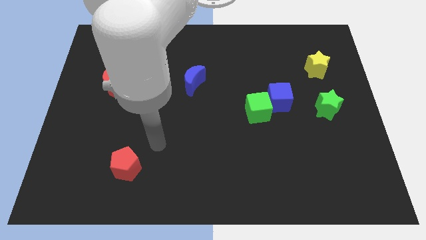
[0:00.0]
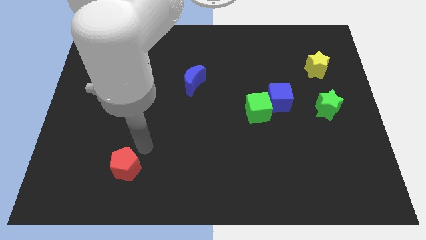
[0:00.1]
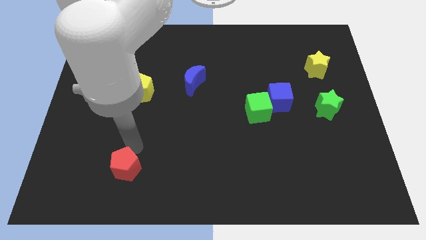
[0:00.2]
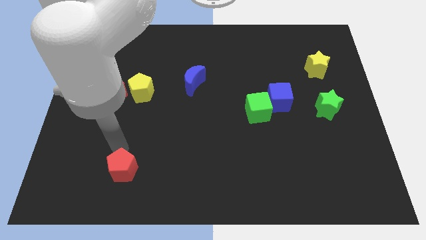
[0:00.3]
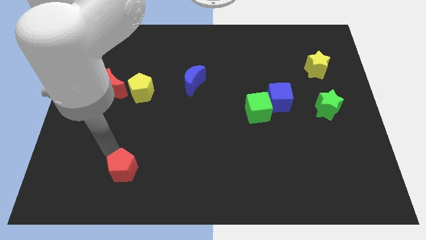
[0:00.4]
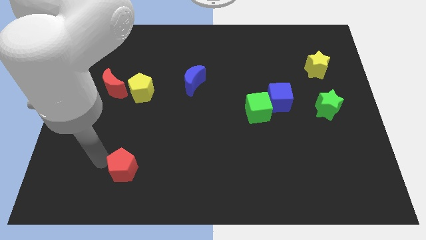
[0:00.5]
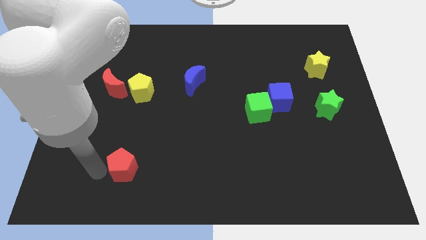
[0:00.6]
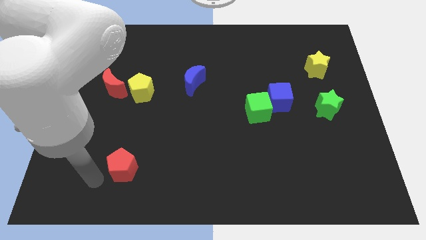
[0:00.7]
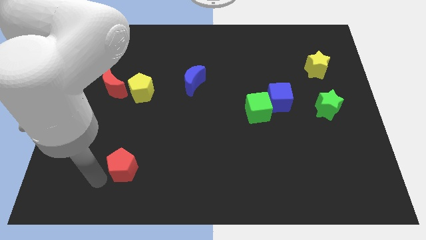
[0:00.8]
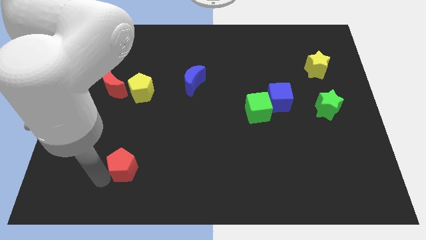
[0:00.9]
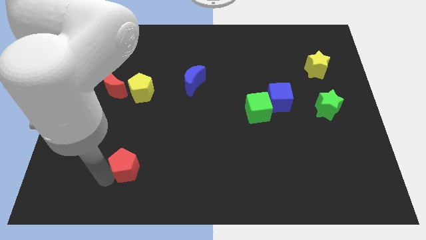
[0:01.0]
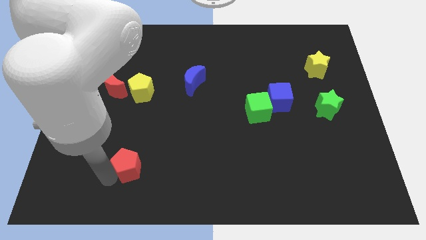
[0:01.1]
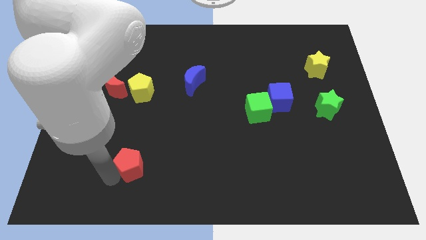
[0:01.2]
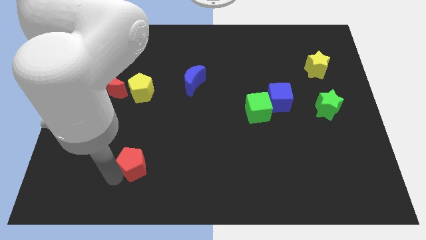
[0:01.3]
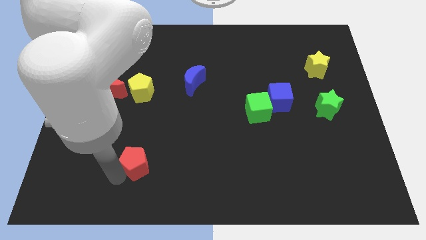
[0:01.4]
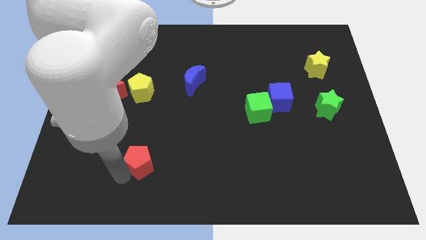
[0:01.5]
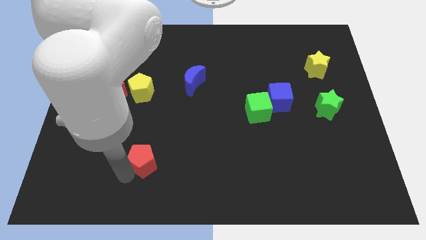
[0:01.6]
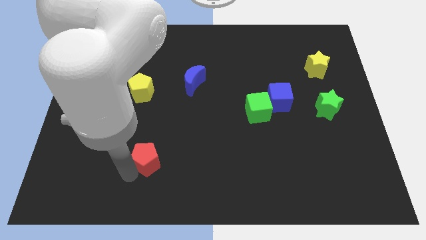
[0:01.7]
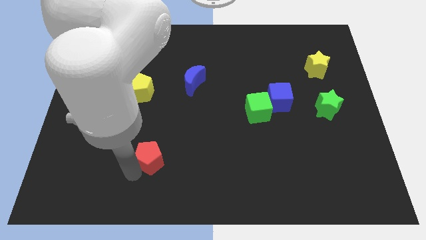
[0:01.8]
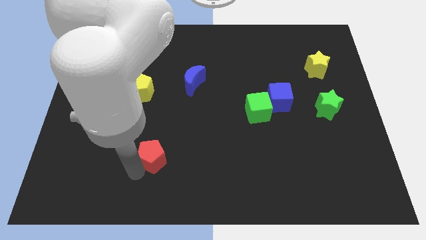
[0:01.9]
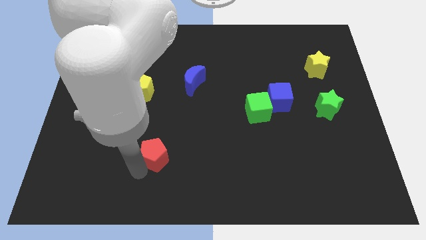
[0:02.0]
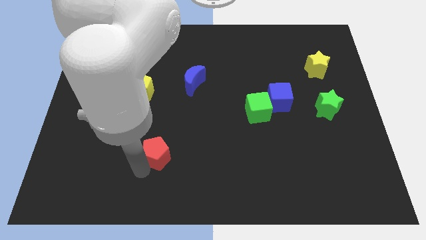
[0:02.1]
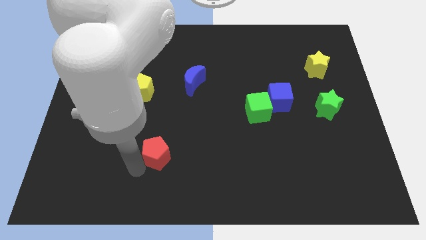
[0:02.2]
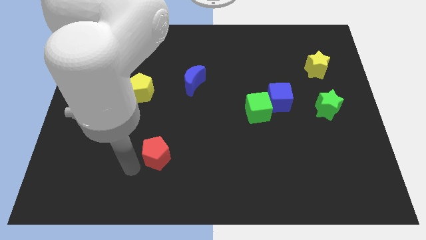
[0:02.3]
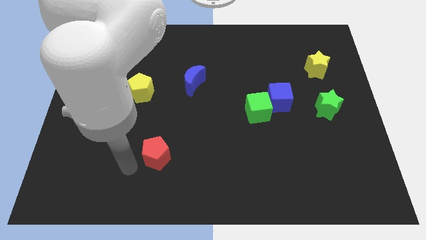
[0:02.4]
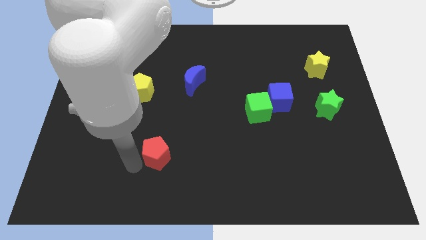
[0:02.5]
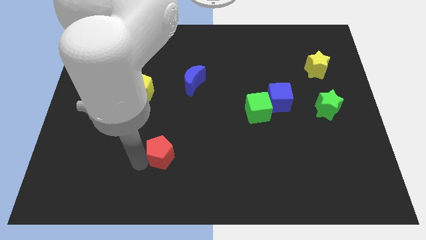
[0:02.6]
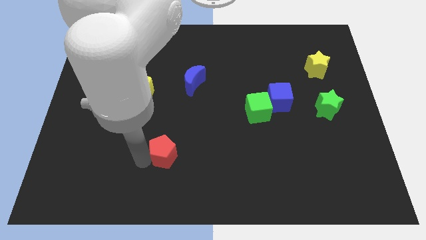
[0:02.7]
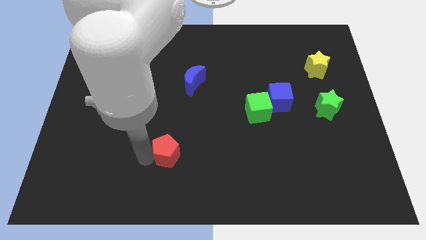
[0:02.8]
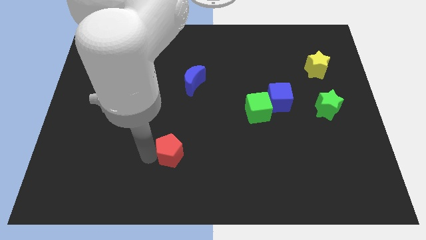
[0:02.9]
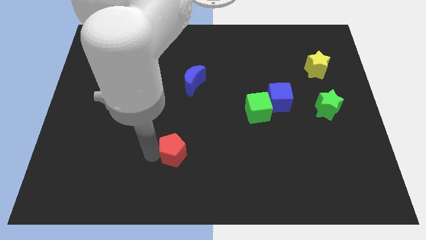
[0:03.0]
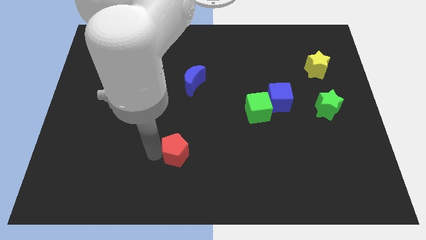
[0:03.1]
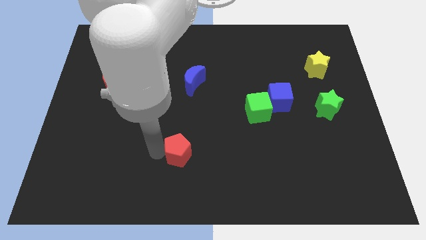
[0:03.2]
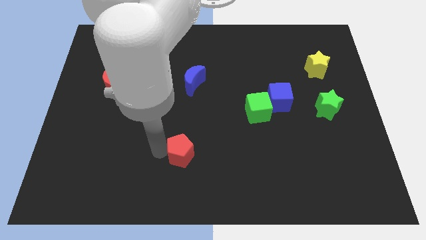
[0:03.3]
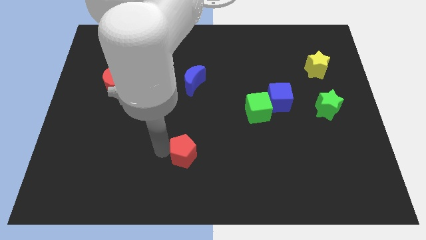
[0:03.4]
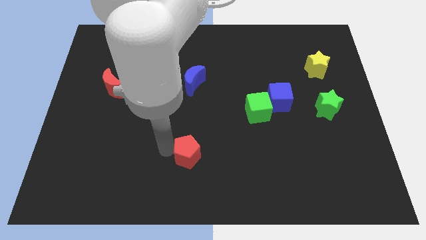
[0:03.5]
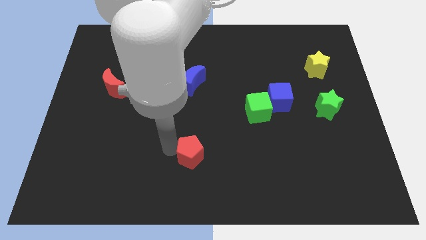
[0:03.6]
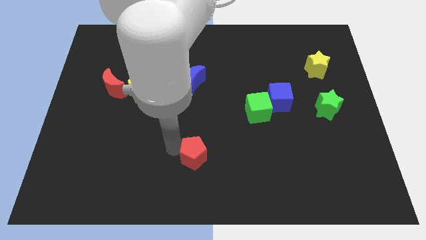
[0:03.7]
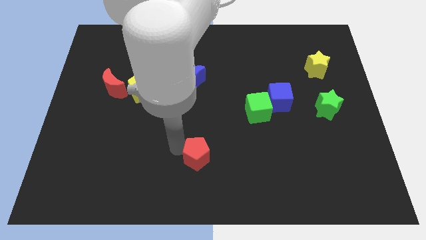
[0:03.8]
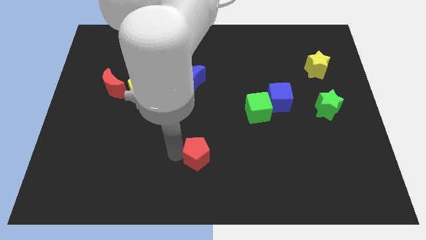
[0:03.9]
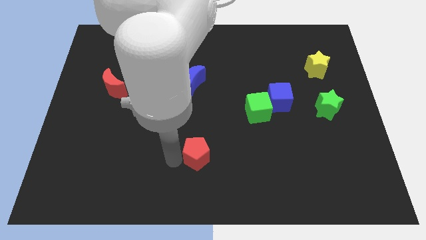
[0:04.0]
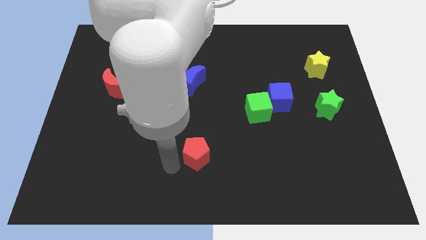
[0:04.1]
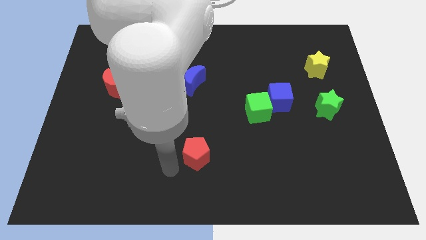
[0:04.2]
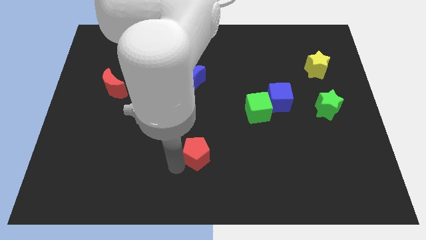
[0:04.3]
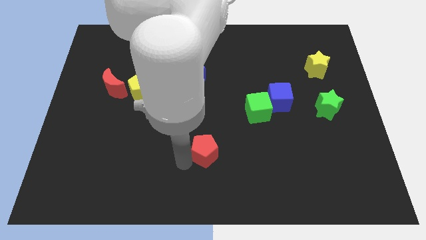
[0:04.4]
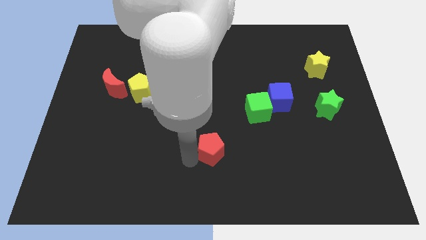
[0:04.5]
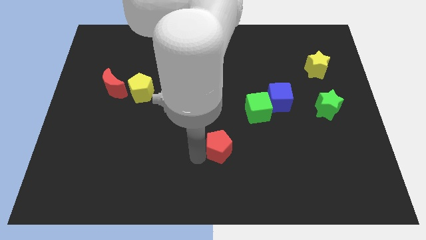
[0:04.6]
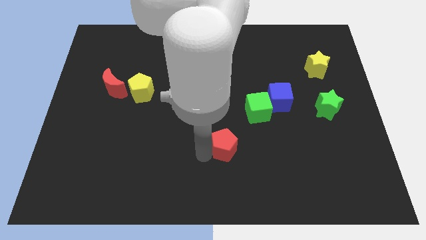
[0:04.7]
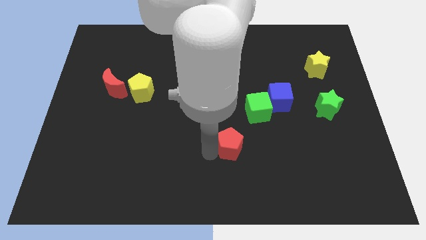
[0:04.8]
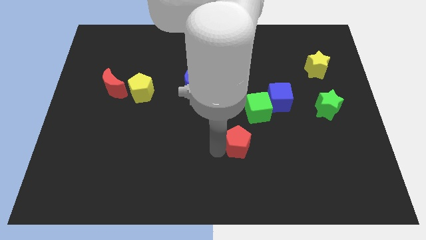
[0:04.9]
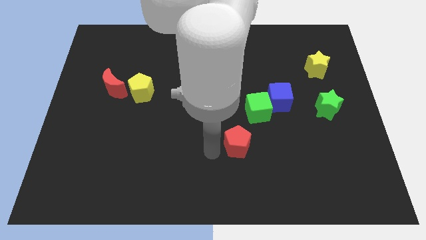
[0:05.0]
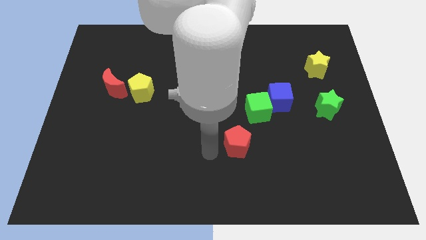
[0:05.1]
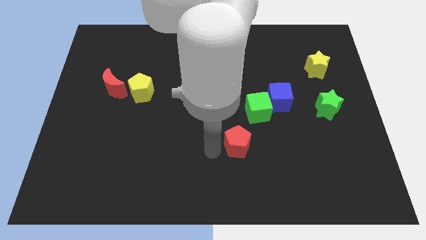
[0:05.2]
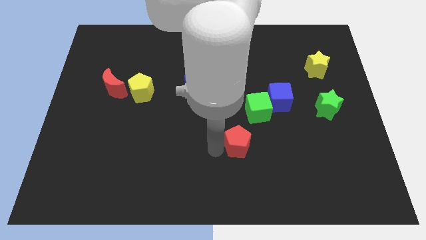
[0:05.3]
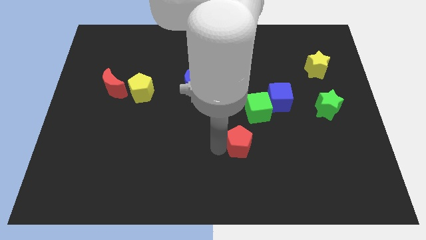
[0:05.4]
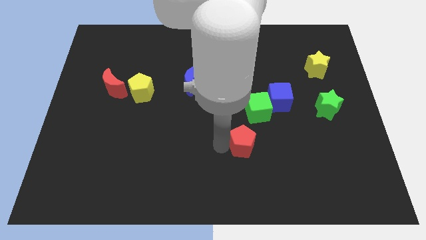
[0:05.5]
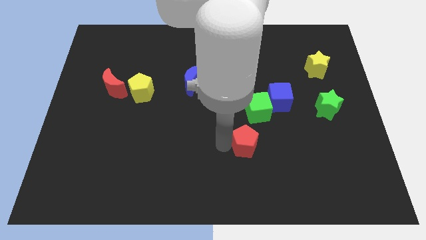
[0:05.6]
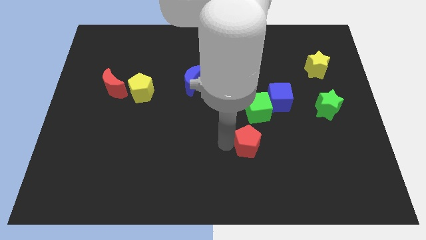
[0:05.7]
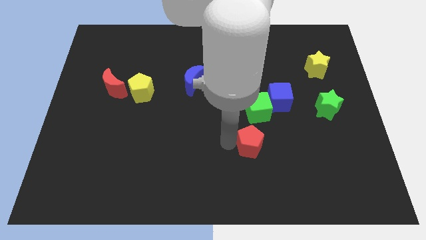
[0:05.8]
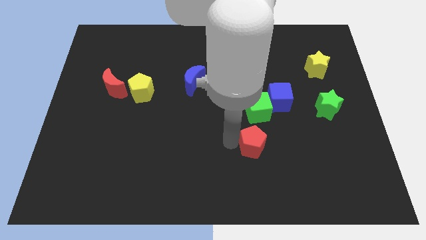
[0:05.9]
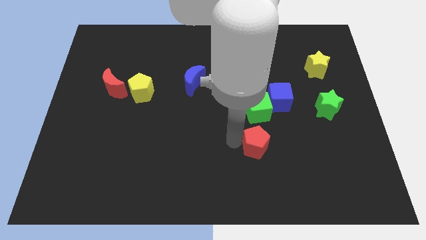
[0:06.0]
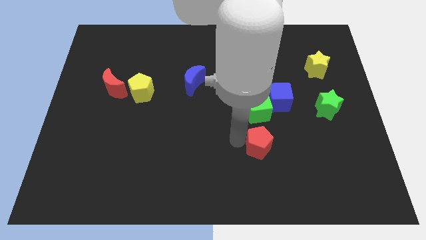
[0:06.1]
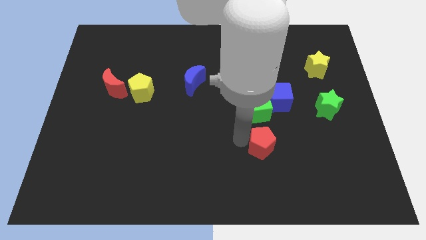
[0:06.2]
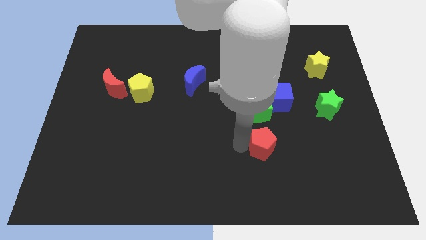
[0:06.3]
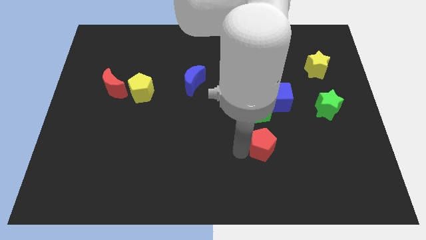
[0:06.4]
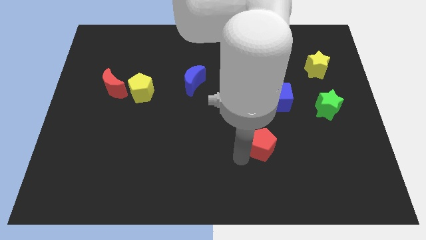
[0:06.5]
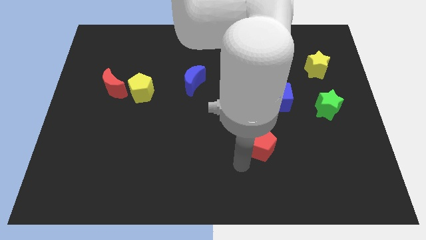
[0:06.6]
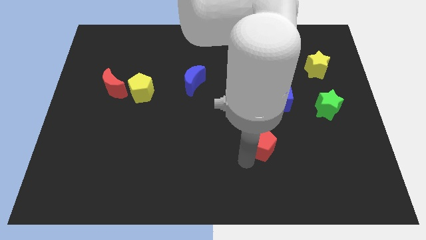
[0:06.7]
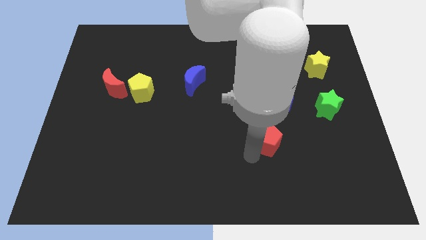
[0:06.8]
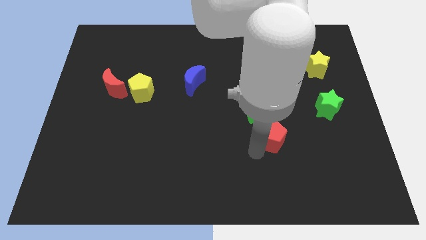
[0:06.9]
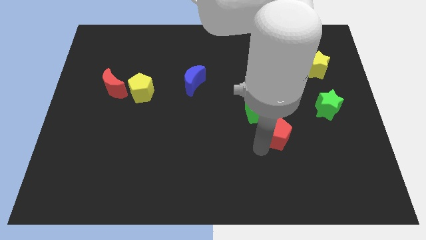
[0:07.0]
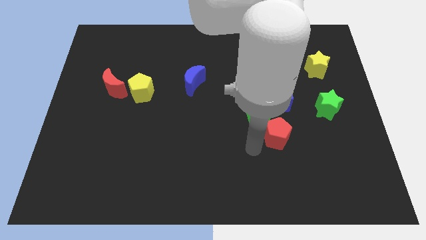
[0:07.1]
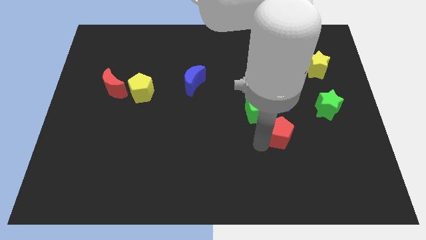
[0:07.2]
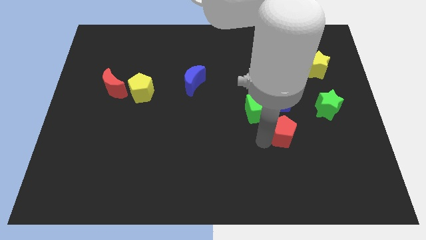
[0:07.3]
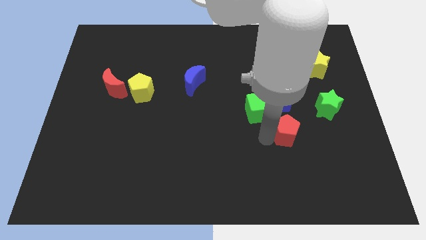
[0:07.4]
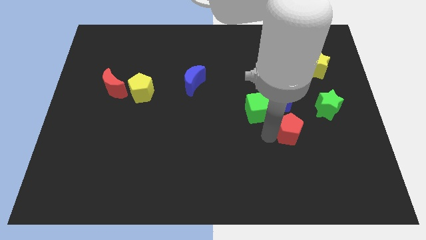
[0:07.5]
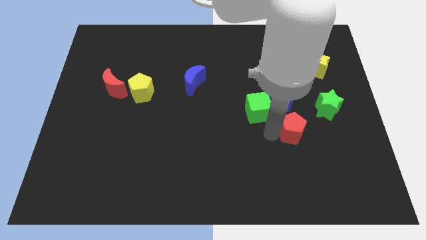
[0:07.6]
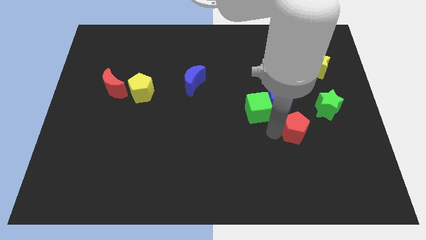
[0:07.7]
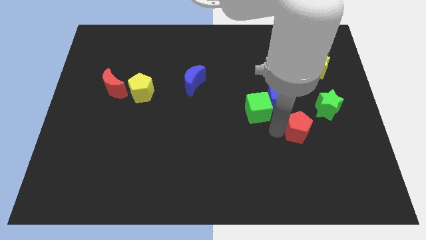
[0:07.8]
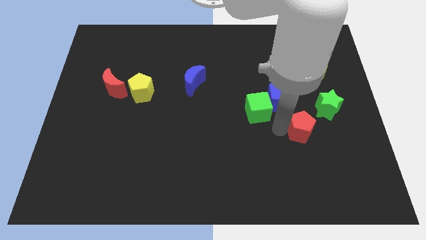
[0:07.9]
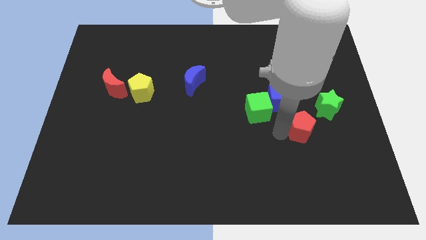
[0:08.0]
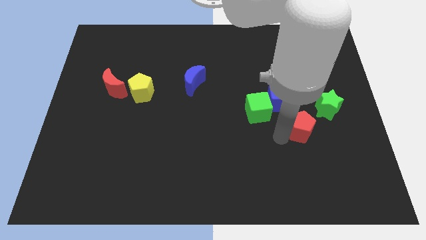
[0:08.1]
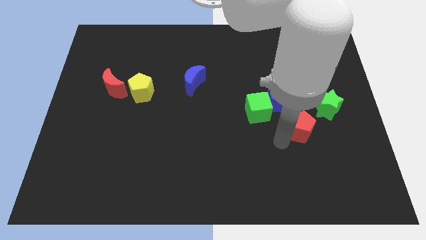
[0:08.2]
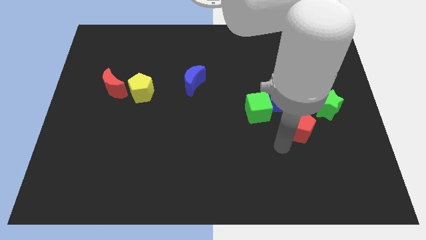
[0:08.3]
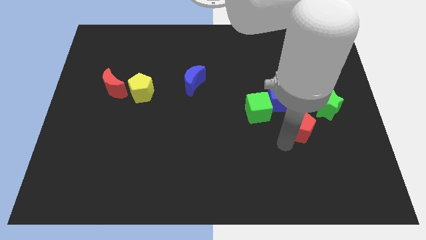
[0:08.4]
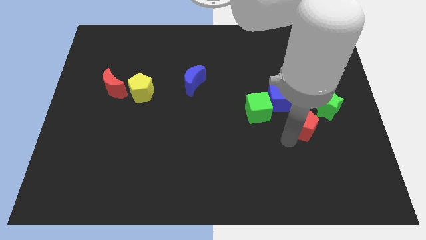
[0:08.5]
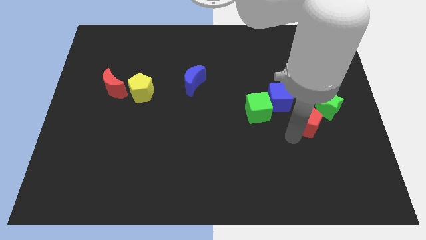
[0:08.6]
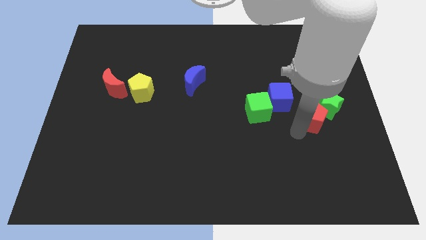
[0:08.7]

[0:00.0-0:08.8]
slide the red pentagon close to the green star
